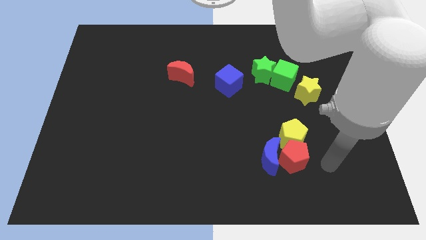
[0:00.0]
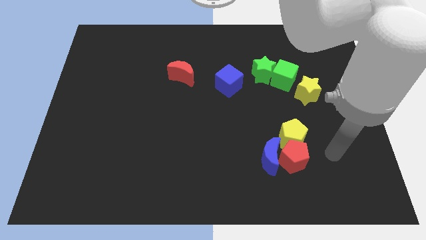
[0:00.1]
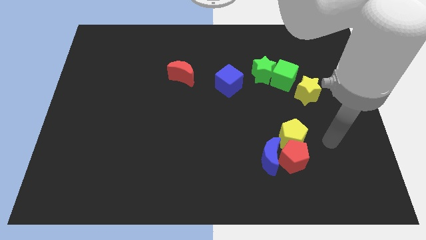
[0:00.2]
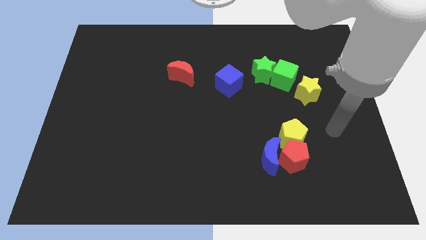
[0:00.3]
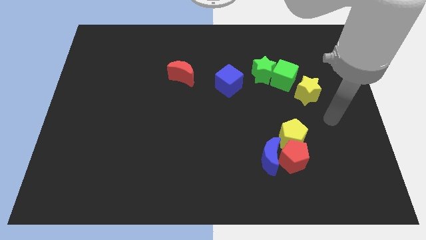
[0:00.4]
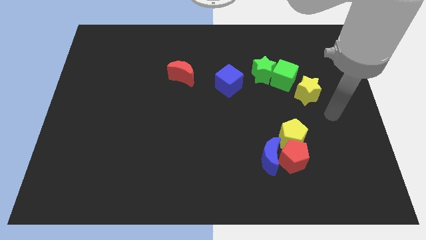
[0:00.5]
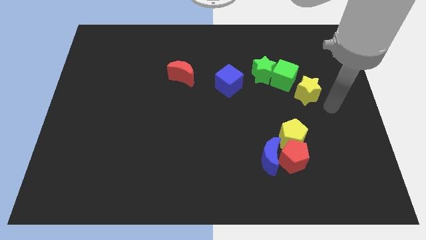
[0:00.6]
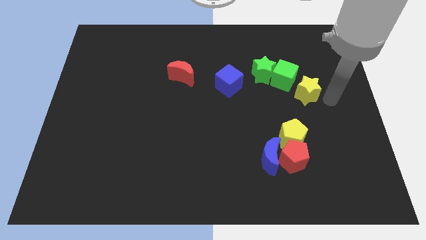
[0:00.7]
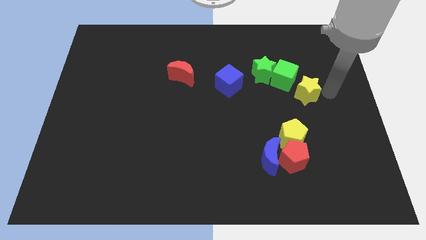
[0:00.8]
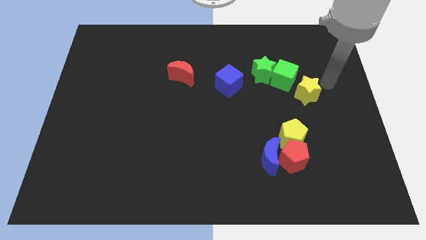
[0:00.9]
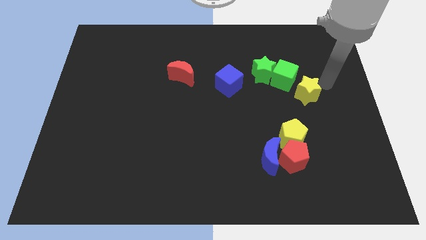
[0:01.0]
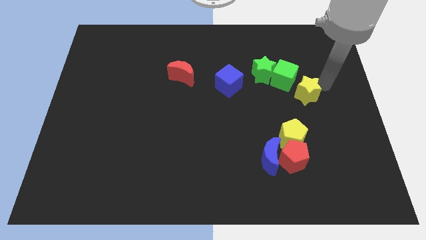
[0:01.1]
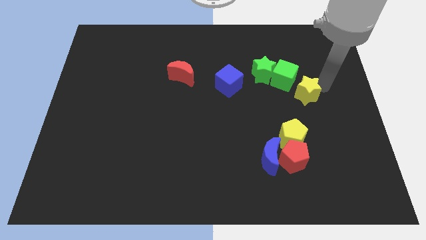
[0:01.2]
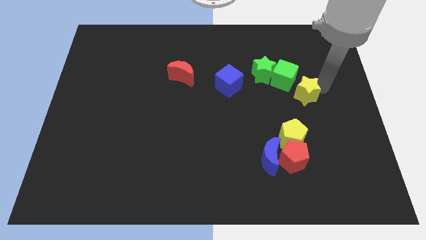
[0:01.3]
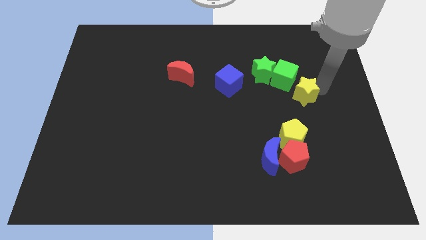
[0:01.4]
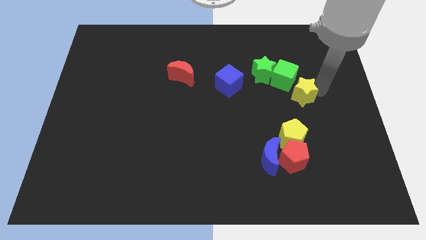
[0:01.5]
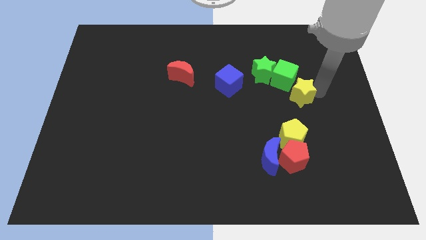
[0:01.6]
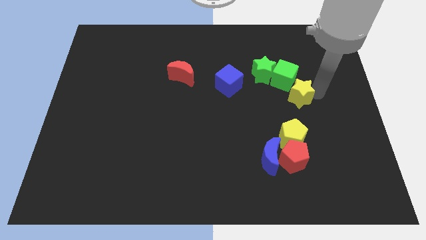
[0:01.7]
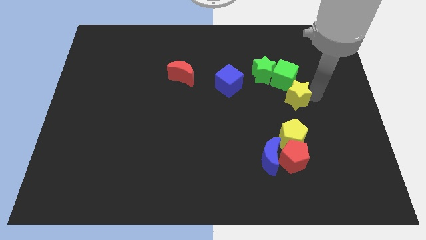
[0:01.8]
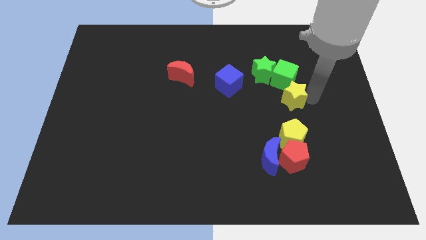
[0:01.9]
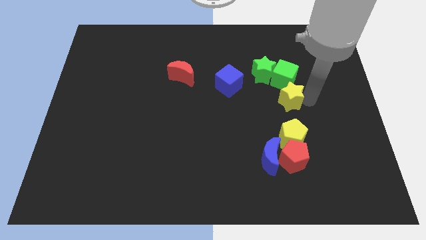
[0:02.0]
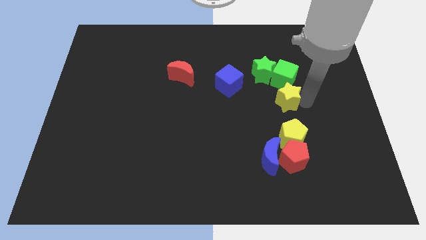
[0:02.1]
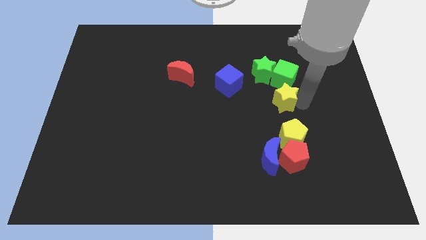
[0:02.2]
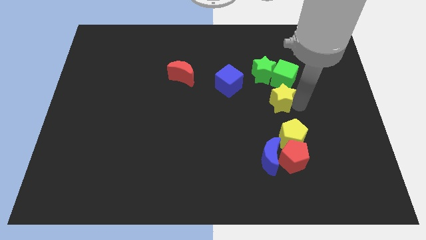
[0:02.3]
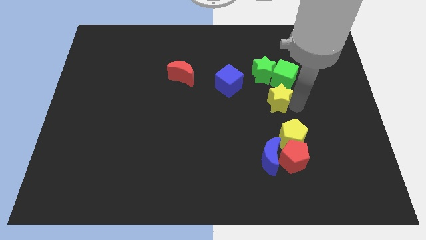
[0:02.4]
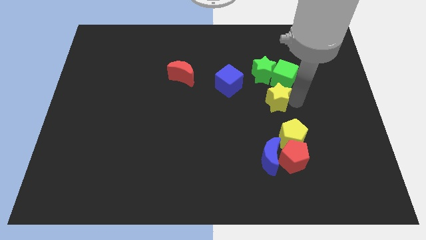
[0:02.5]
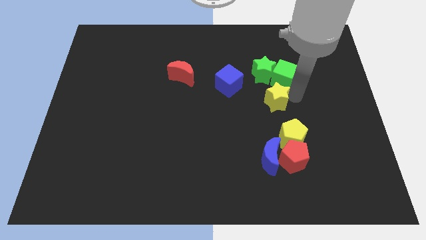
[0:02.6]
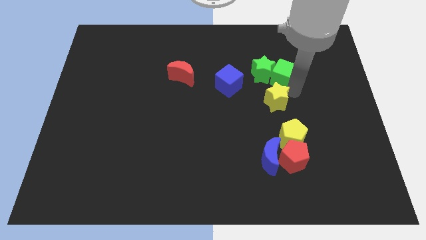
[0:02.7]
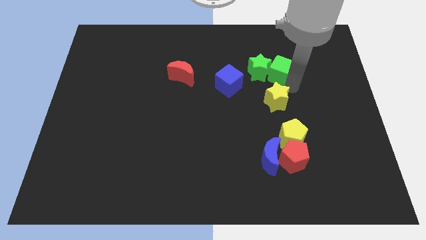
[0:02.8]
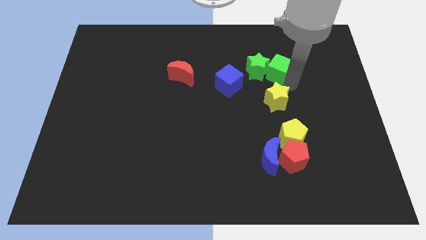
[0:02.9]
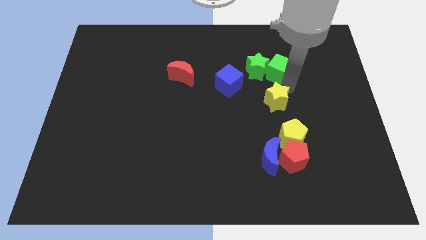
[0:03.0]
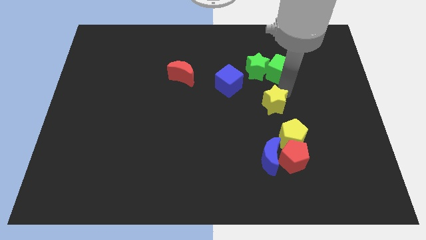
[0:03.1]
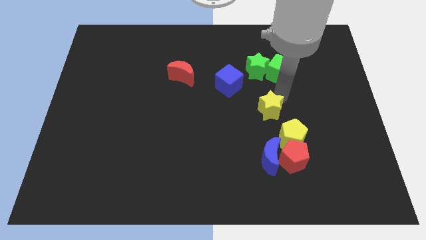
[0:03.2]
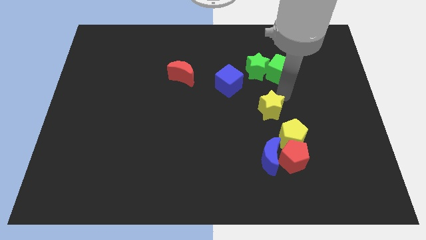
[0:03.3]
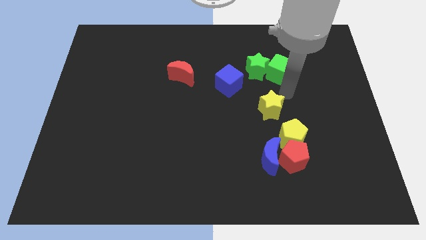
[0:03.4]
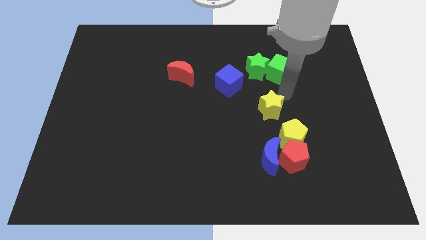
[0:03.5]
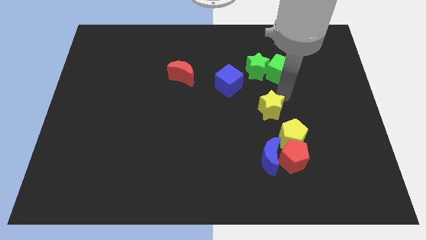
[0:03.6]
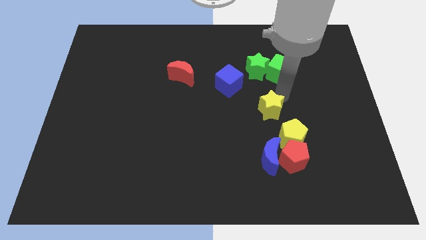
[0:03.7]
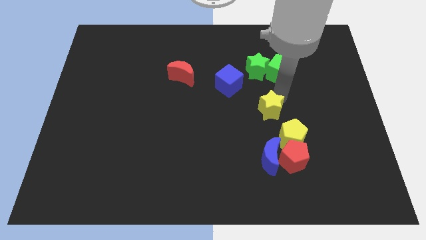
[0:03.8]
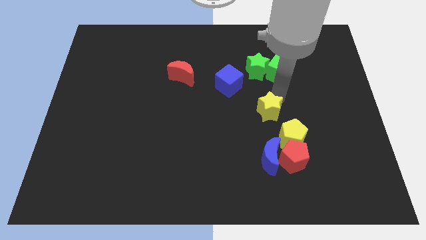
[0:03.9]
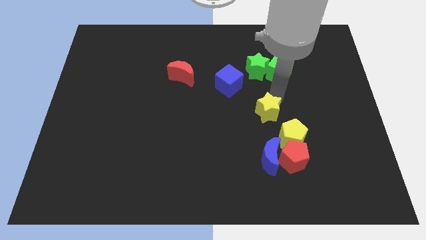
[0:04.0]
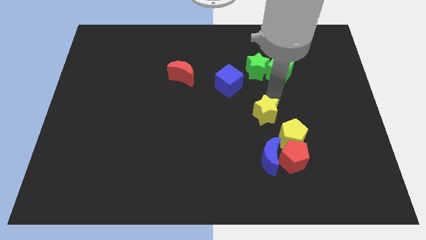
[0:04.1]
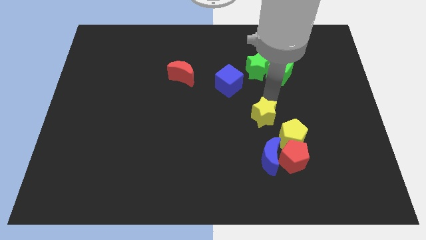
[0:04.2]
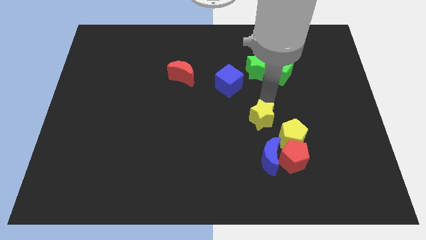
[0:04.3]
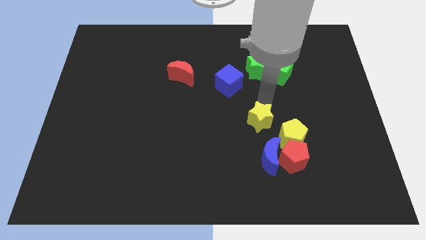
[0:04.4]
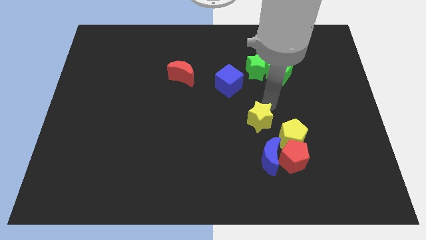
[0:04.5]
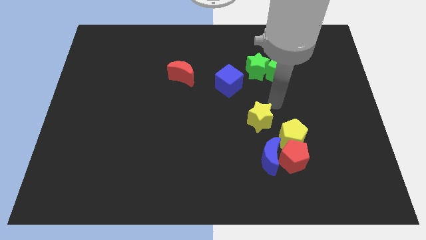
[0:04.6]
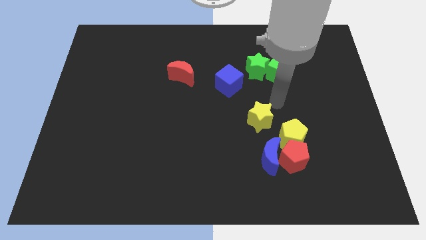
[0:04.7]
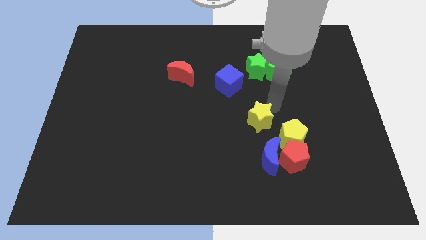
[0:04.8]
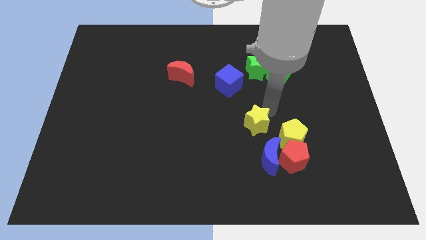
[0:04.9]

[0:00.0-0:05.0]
move the yellow star diagonally up and to the left of the blue moon

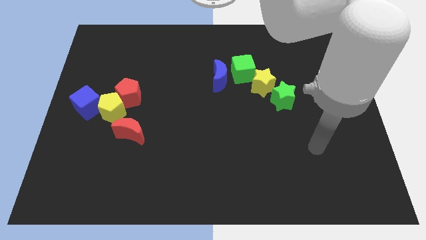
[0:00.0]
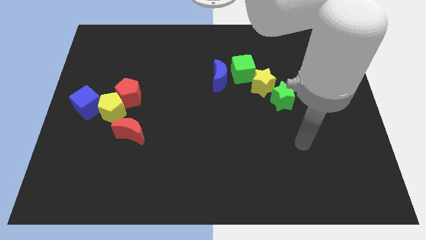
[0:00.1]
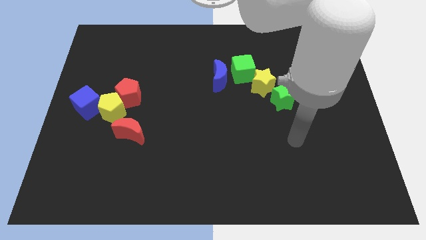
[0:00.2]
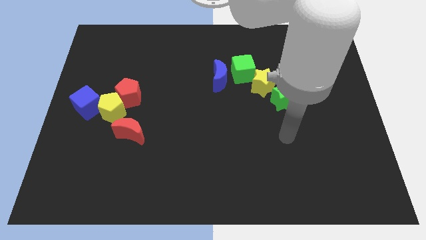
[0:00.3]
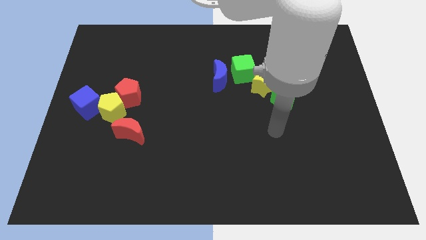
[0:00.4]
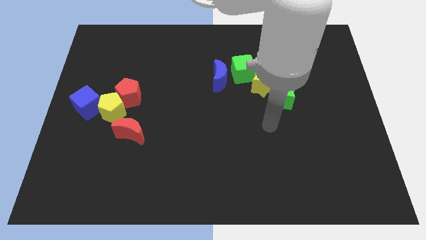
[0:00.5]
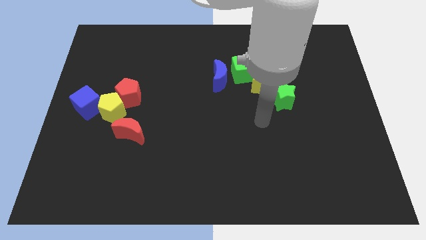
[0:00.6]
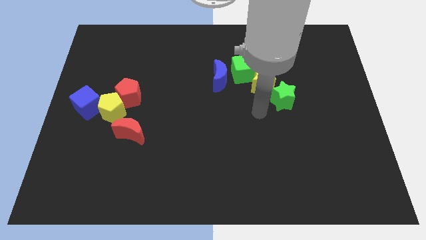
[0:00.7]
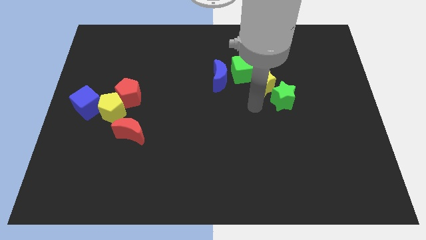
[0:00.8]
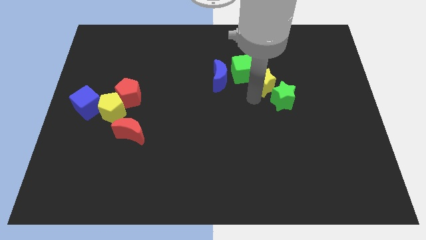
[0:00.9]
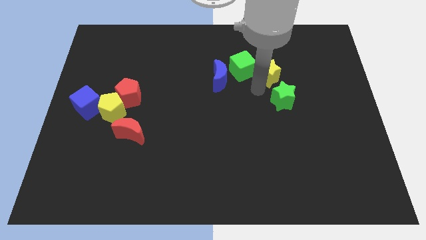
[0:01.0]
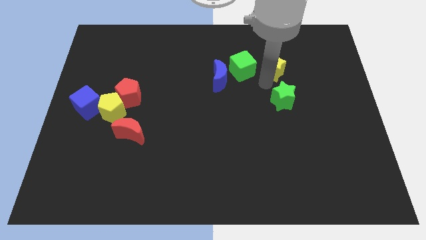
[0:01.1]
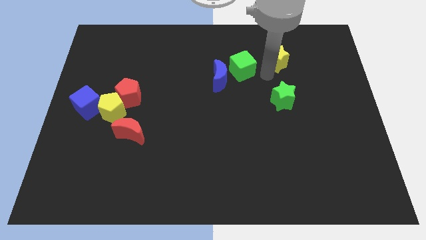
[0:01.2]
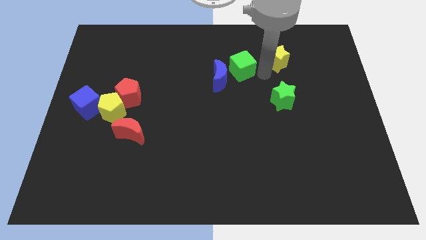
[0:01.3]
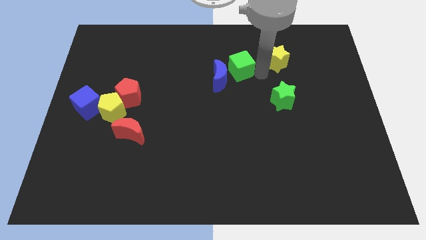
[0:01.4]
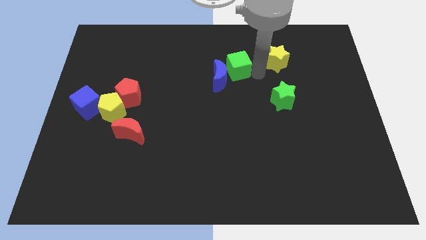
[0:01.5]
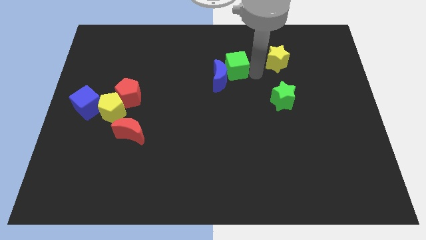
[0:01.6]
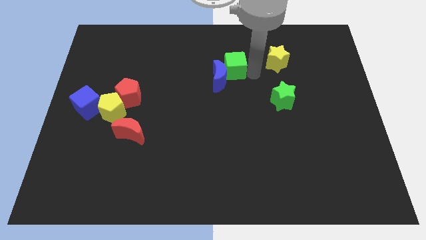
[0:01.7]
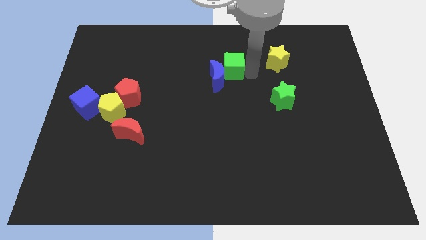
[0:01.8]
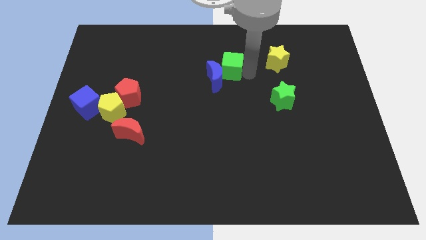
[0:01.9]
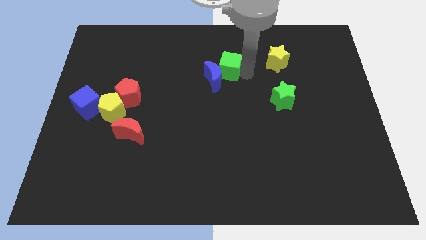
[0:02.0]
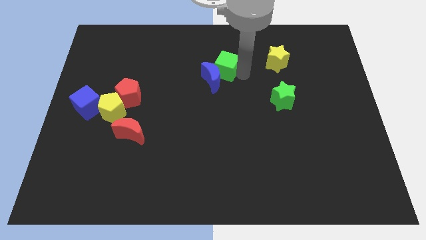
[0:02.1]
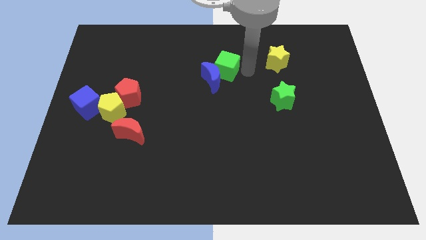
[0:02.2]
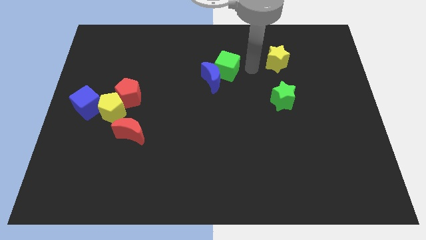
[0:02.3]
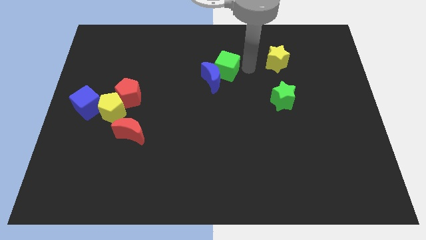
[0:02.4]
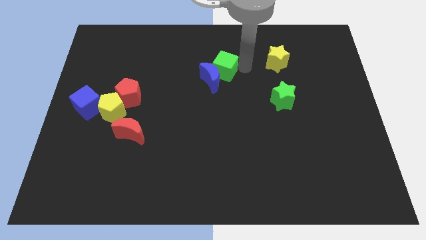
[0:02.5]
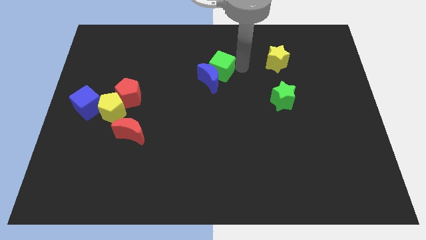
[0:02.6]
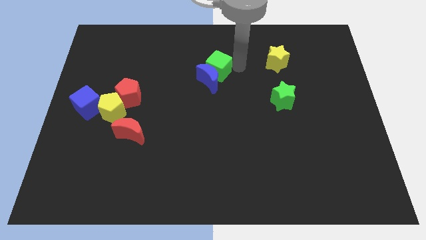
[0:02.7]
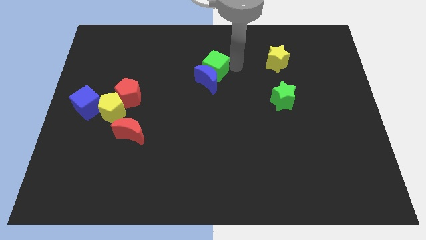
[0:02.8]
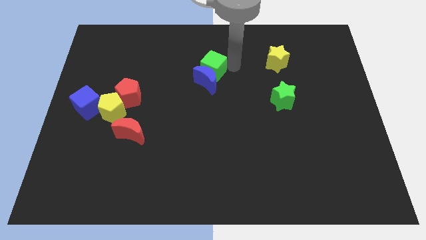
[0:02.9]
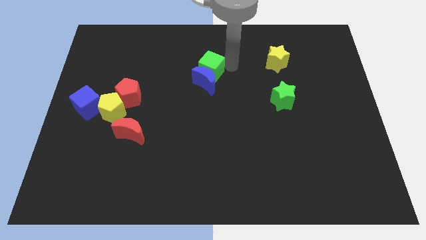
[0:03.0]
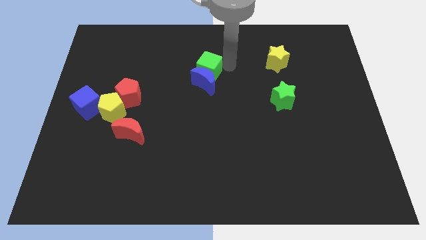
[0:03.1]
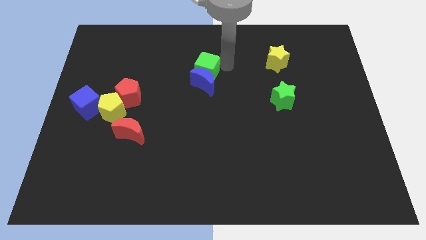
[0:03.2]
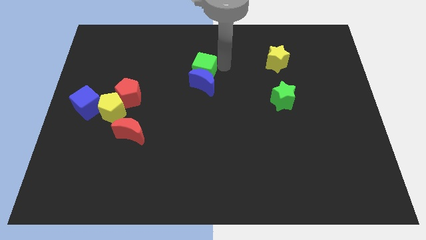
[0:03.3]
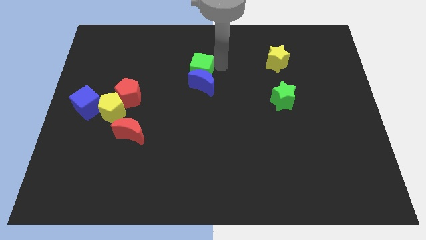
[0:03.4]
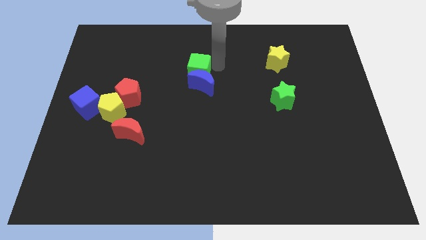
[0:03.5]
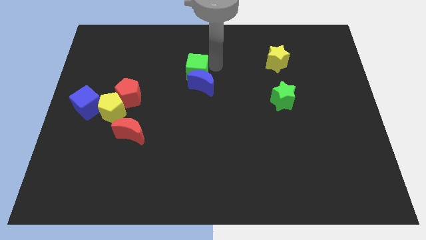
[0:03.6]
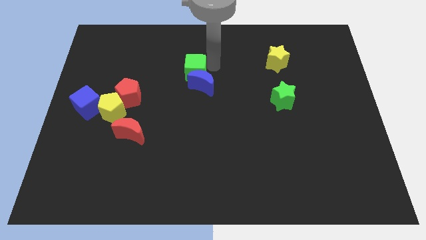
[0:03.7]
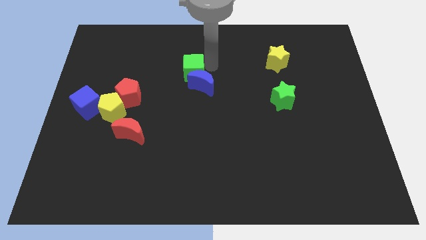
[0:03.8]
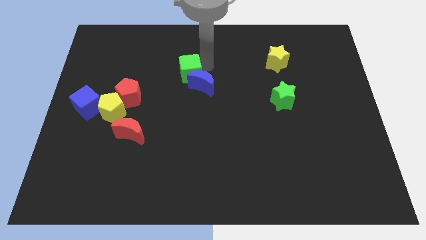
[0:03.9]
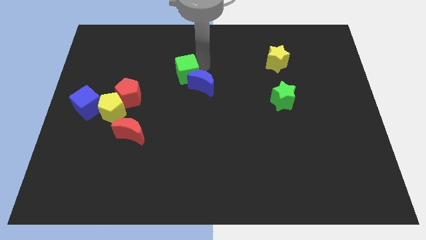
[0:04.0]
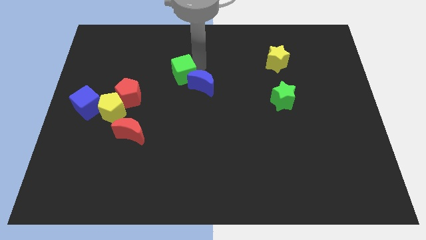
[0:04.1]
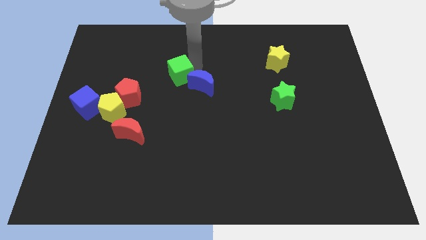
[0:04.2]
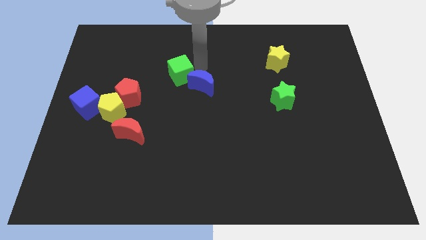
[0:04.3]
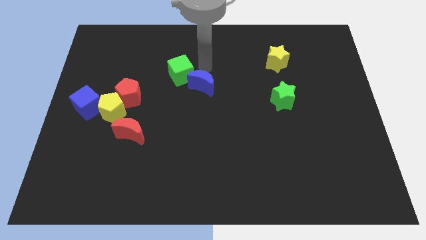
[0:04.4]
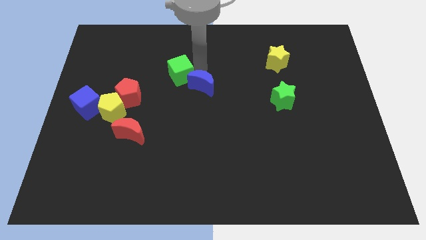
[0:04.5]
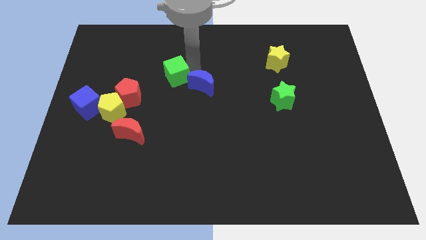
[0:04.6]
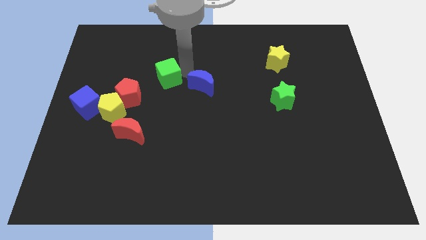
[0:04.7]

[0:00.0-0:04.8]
move the green cube to the top right of the red pentagon
